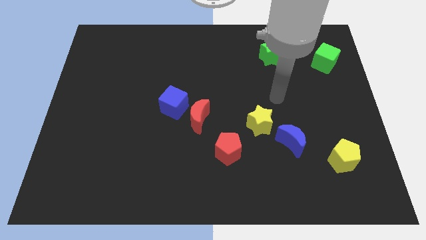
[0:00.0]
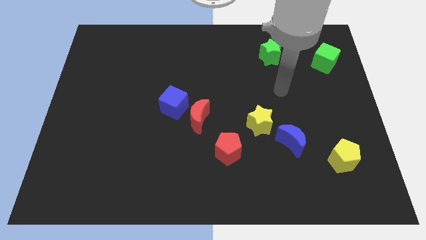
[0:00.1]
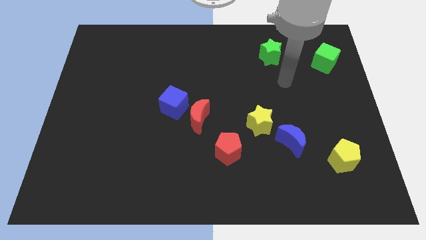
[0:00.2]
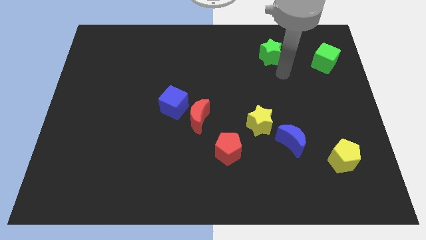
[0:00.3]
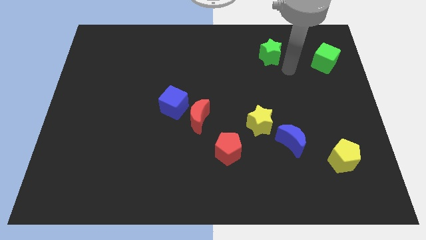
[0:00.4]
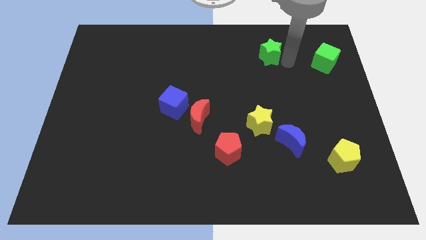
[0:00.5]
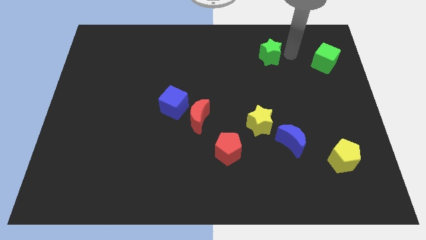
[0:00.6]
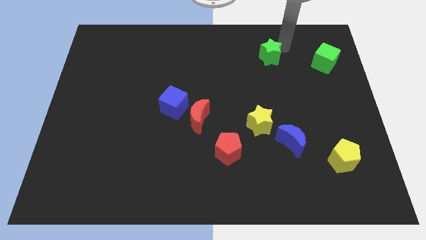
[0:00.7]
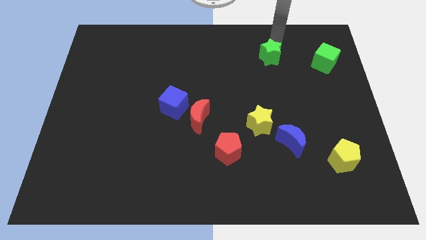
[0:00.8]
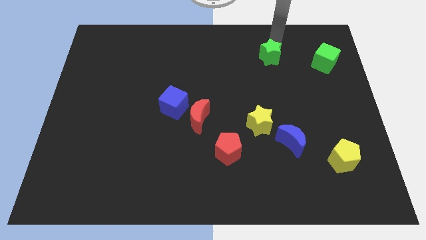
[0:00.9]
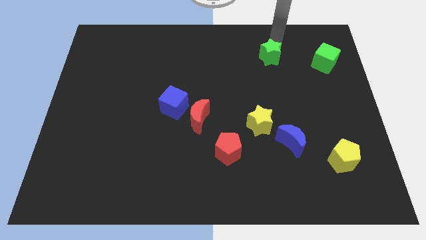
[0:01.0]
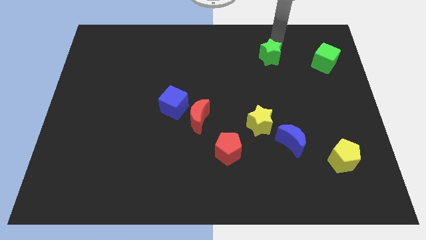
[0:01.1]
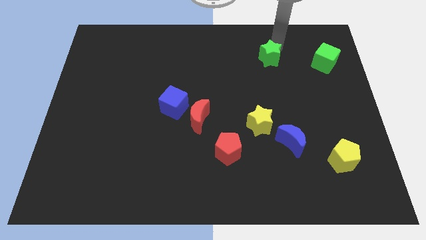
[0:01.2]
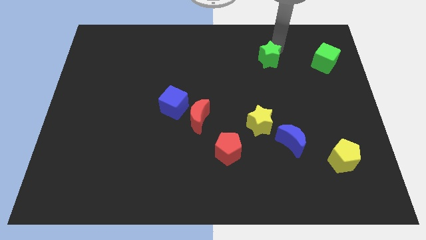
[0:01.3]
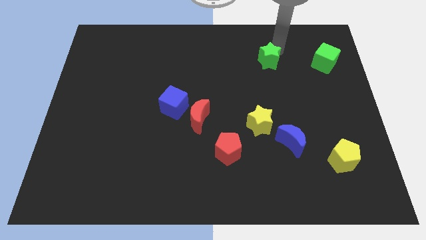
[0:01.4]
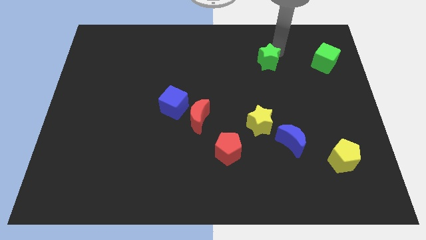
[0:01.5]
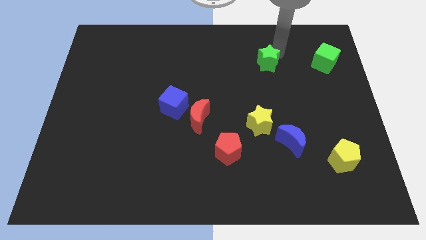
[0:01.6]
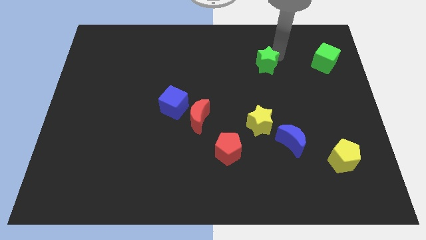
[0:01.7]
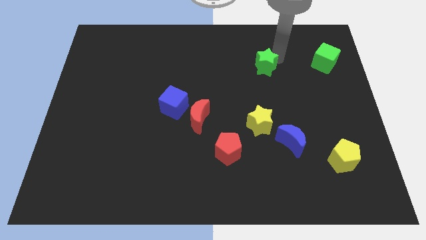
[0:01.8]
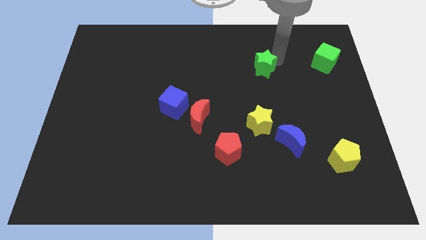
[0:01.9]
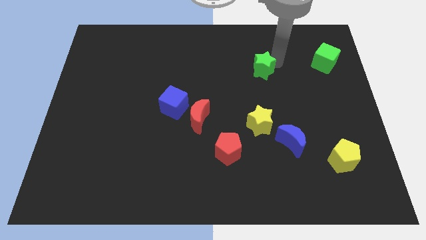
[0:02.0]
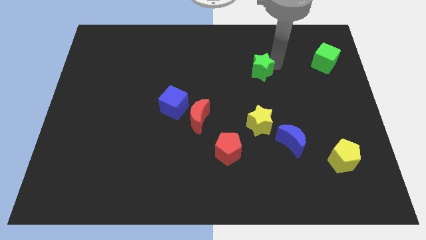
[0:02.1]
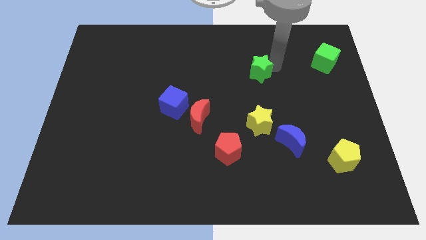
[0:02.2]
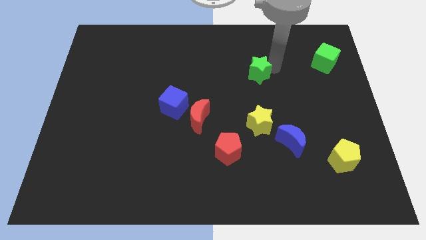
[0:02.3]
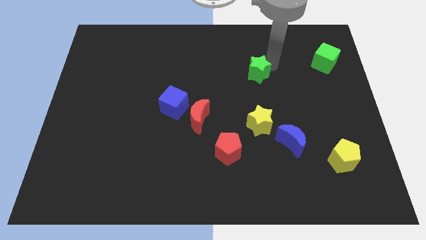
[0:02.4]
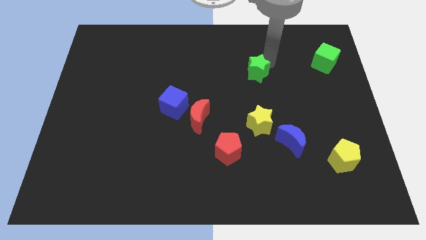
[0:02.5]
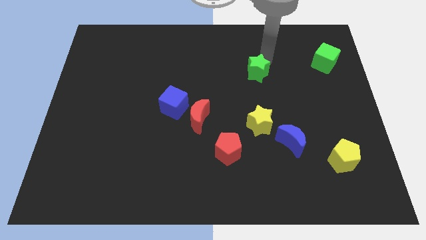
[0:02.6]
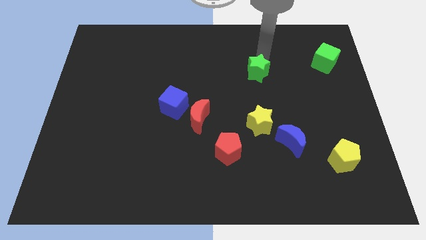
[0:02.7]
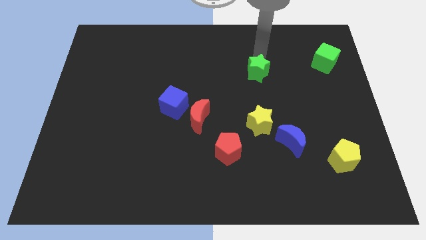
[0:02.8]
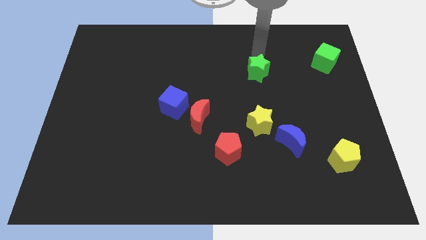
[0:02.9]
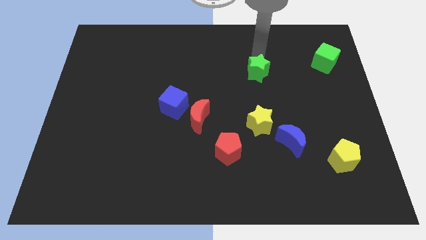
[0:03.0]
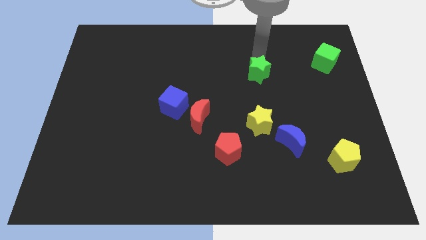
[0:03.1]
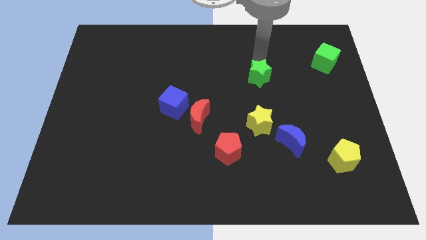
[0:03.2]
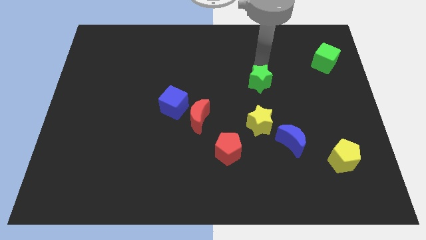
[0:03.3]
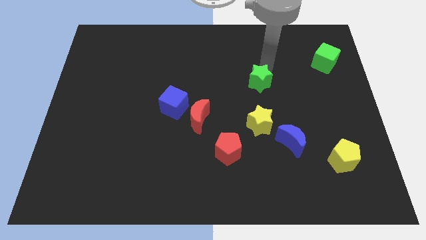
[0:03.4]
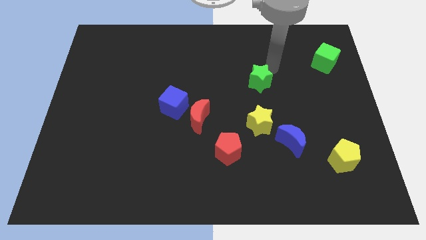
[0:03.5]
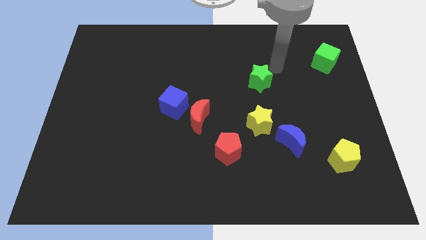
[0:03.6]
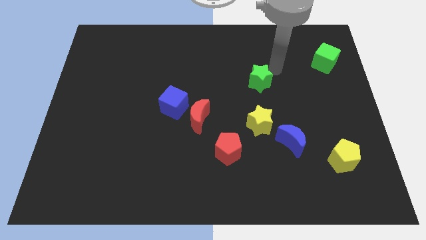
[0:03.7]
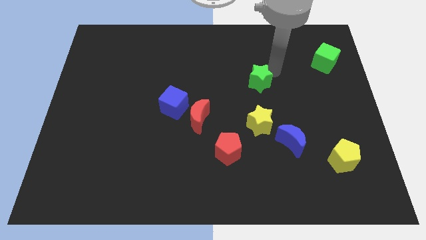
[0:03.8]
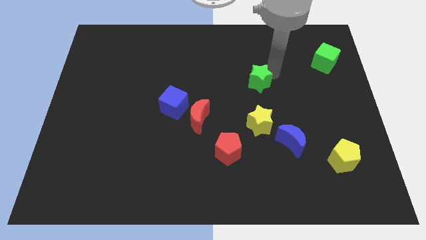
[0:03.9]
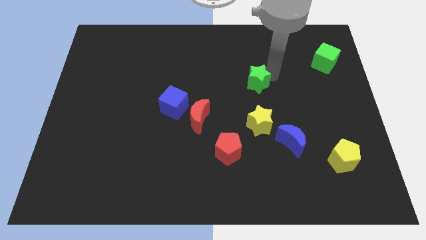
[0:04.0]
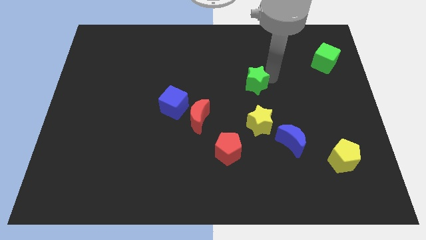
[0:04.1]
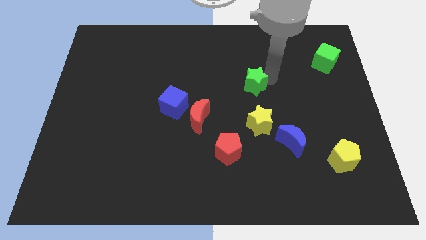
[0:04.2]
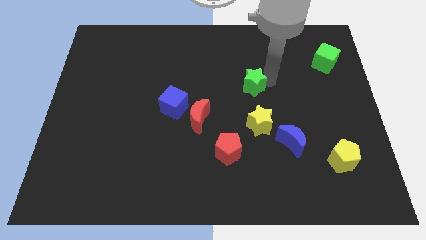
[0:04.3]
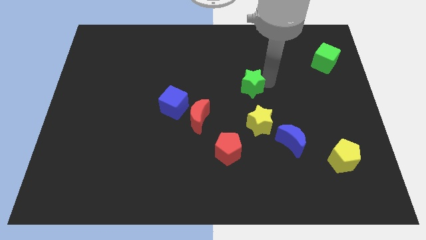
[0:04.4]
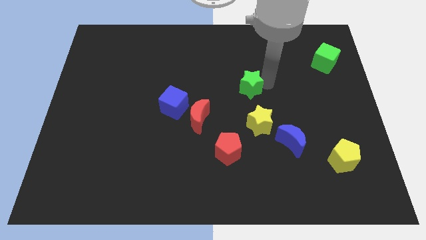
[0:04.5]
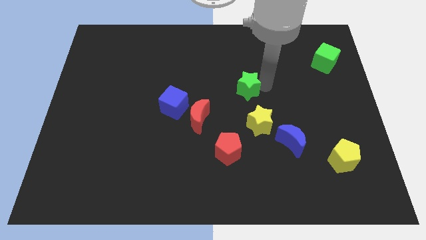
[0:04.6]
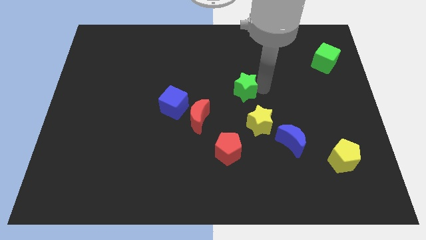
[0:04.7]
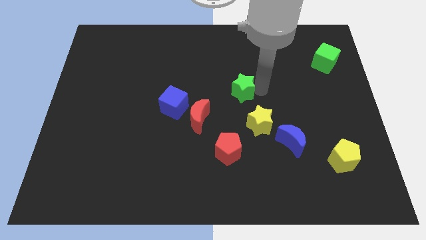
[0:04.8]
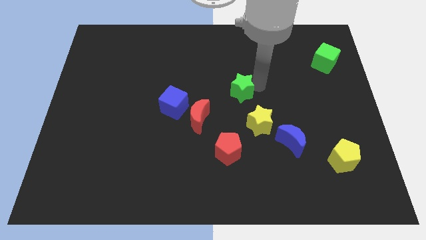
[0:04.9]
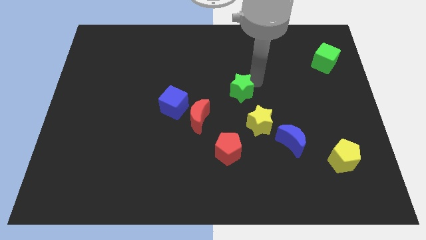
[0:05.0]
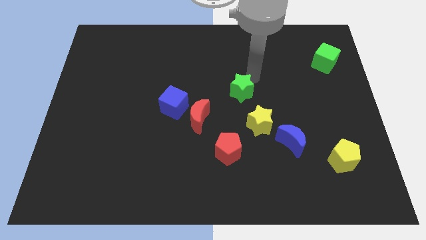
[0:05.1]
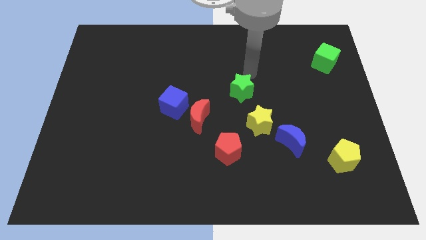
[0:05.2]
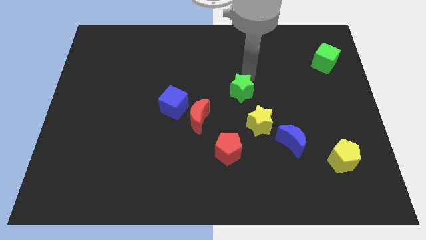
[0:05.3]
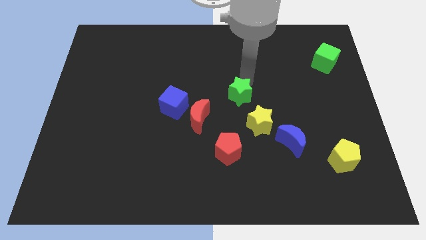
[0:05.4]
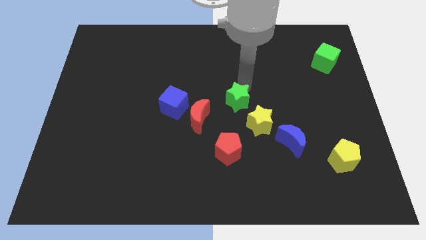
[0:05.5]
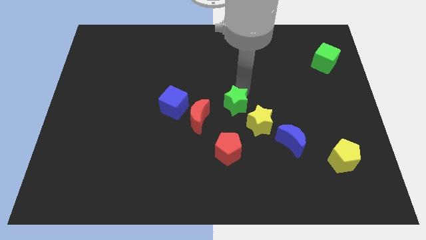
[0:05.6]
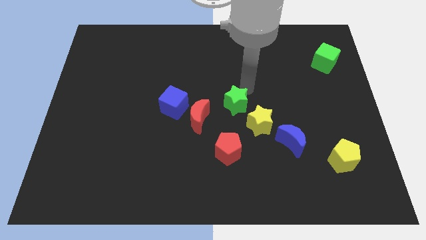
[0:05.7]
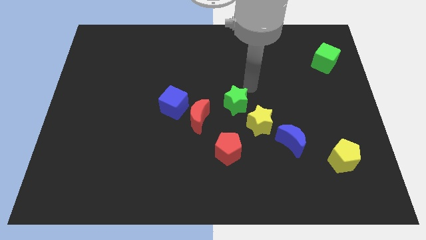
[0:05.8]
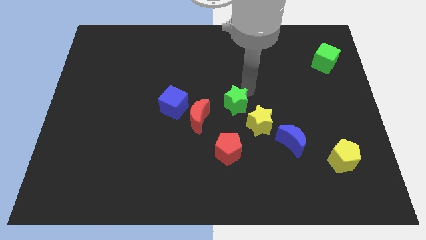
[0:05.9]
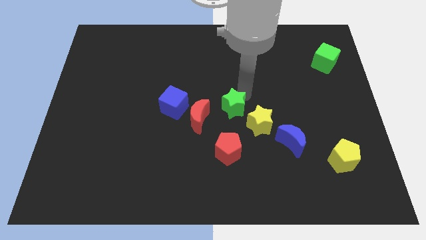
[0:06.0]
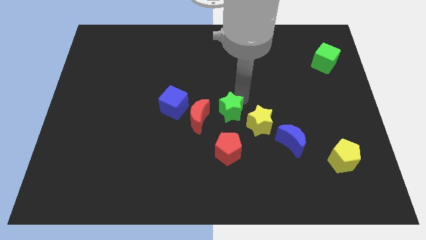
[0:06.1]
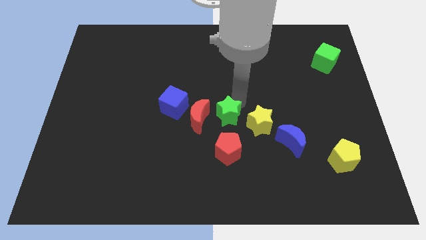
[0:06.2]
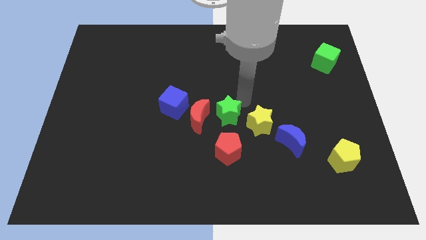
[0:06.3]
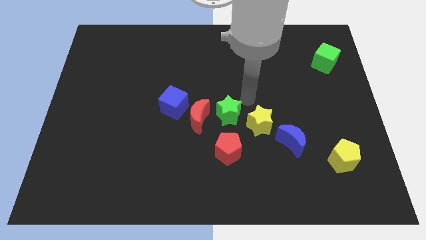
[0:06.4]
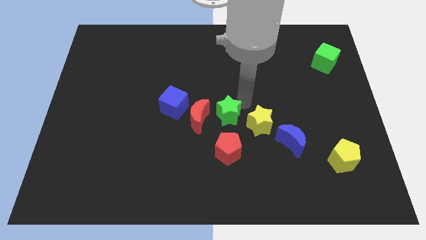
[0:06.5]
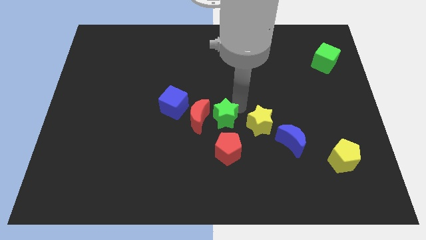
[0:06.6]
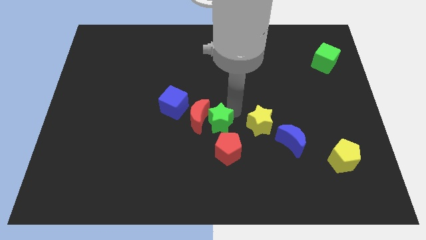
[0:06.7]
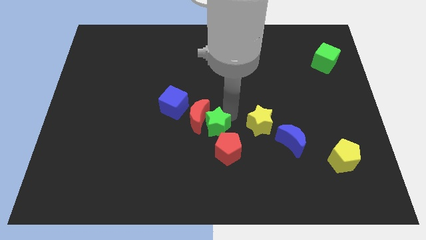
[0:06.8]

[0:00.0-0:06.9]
move the green star to the bottom right side of the blue cube
